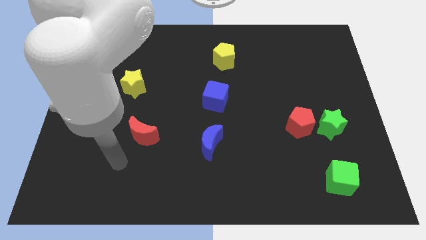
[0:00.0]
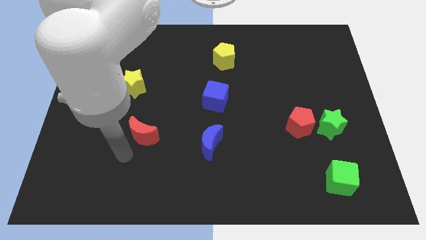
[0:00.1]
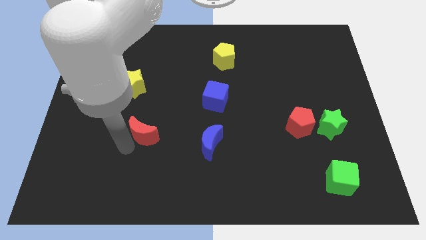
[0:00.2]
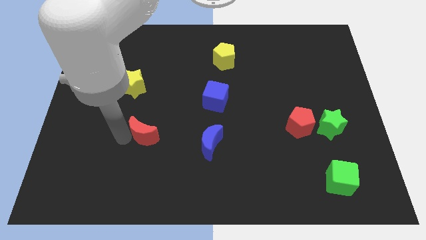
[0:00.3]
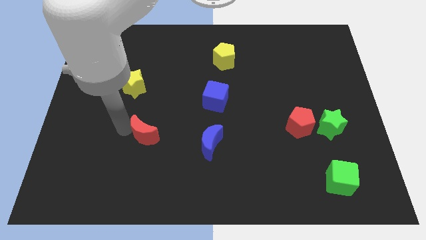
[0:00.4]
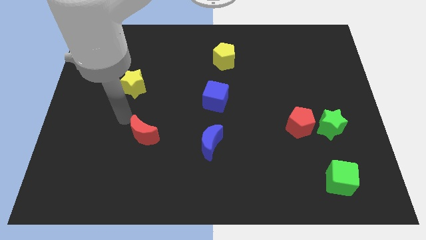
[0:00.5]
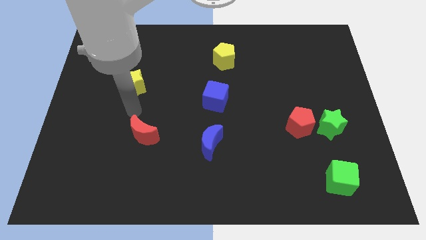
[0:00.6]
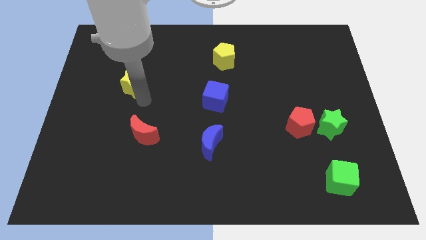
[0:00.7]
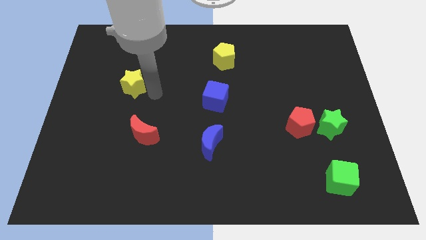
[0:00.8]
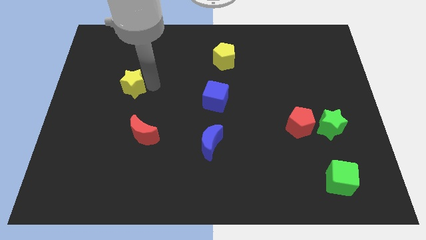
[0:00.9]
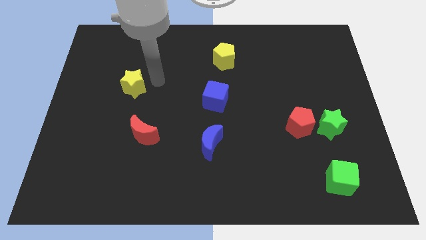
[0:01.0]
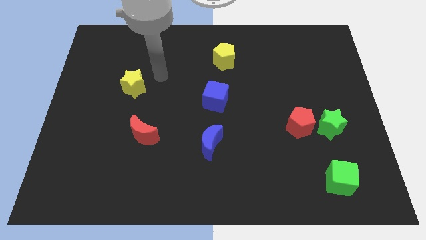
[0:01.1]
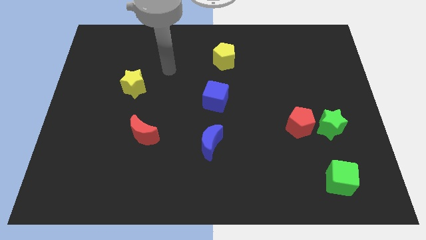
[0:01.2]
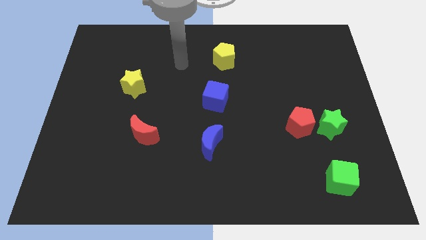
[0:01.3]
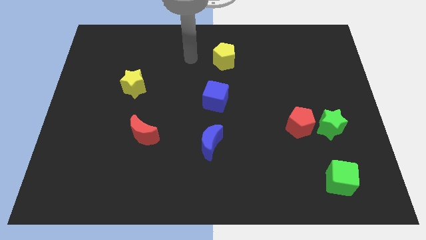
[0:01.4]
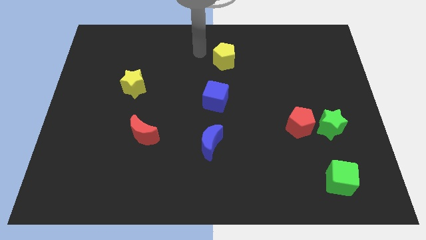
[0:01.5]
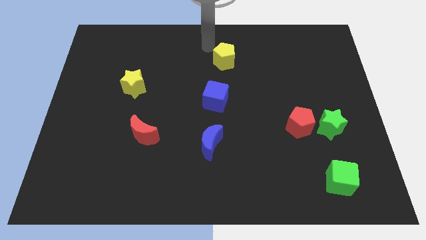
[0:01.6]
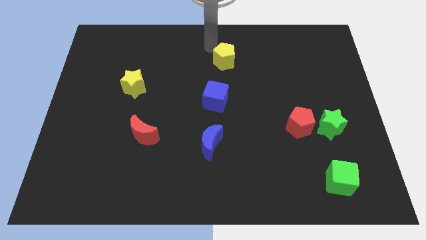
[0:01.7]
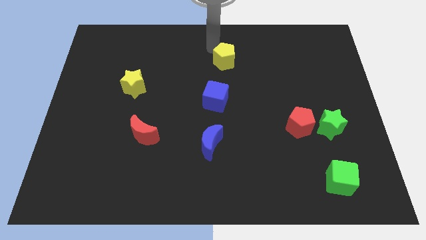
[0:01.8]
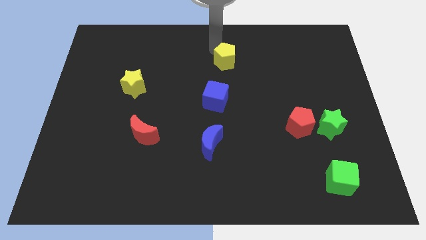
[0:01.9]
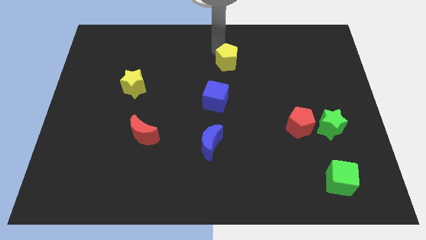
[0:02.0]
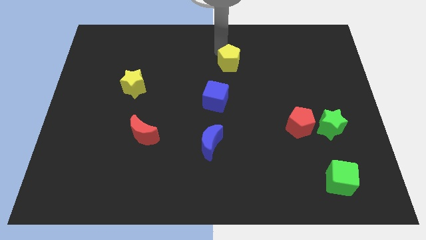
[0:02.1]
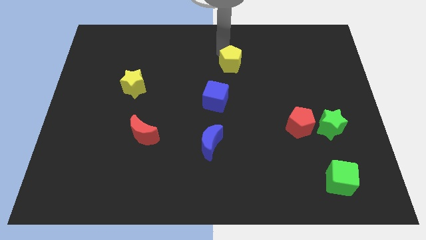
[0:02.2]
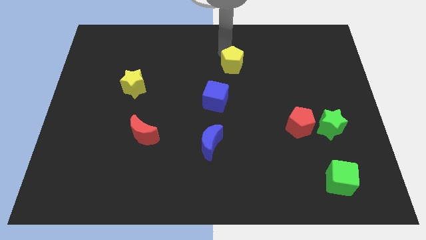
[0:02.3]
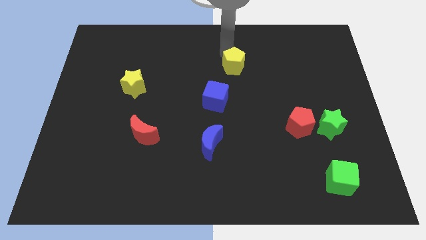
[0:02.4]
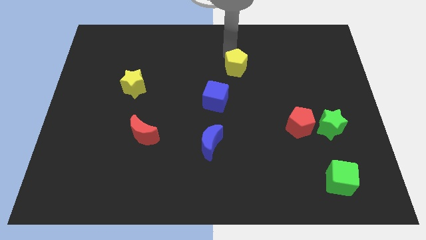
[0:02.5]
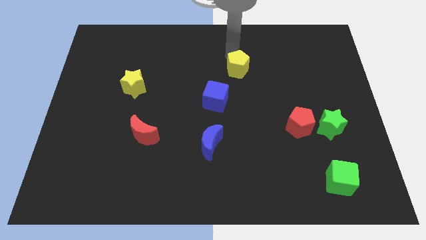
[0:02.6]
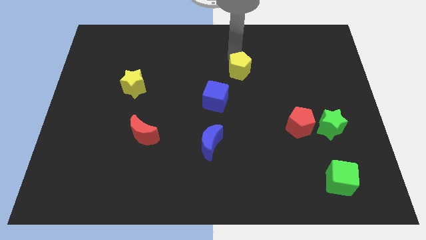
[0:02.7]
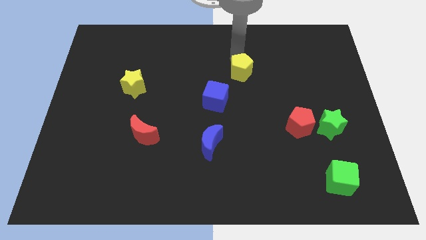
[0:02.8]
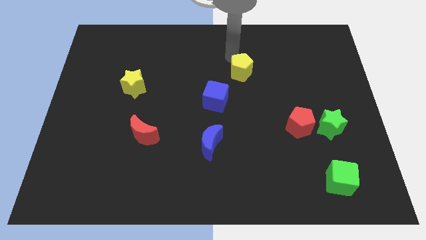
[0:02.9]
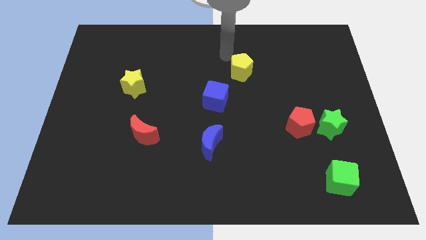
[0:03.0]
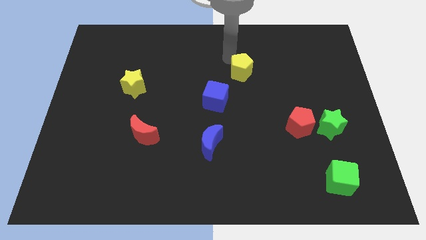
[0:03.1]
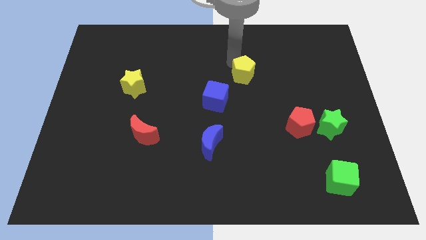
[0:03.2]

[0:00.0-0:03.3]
push the yellow pentagon slightly downwards and right diagonally

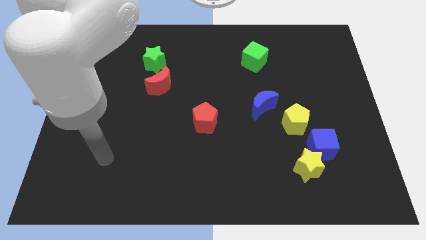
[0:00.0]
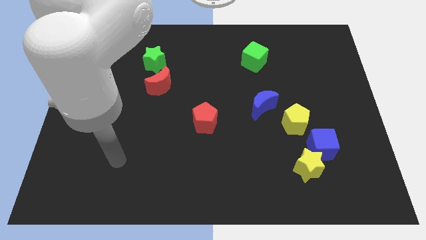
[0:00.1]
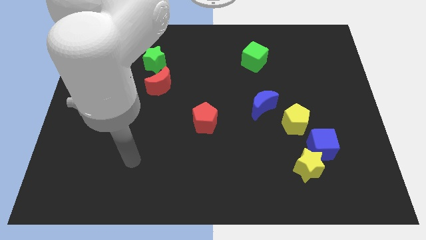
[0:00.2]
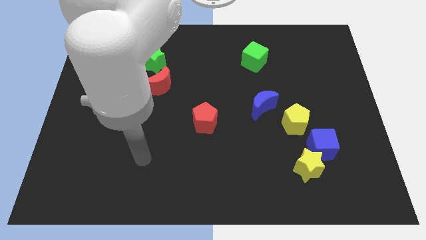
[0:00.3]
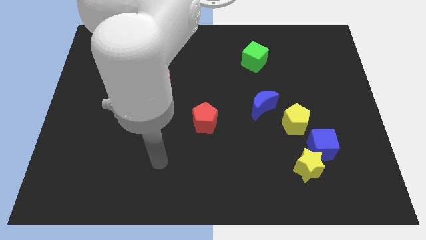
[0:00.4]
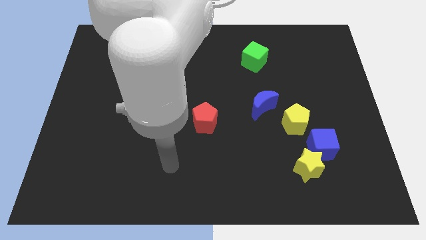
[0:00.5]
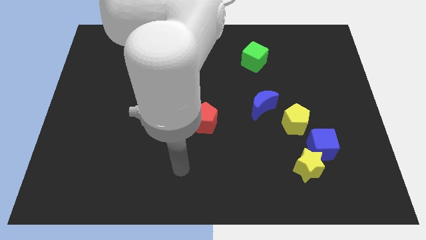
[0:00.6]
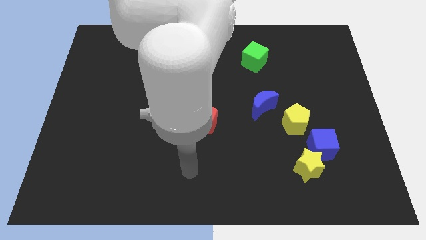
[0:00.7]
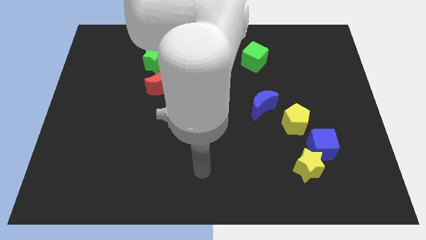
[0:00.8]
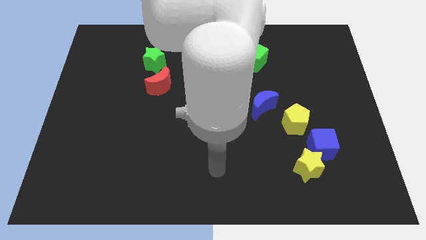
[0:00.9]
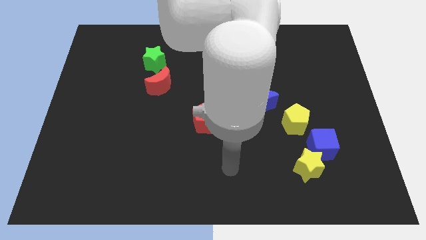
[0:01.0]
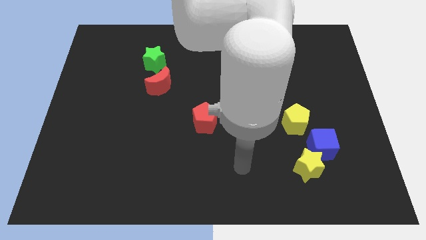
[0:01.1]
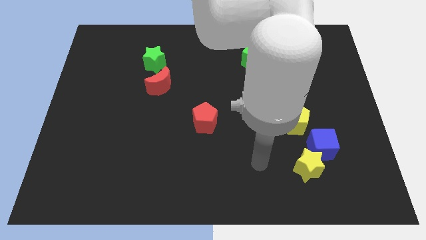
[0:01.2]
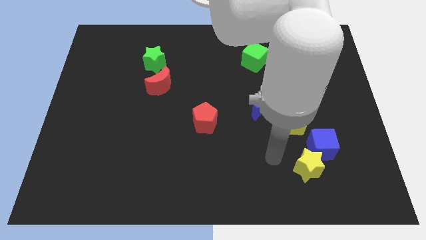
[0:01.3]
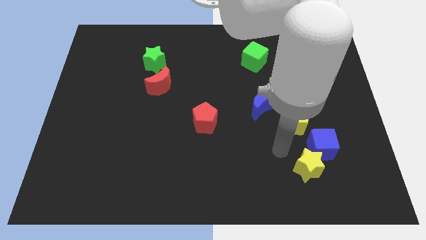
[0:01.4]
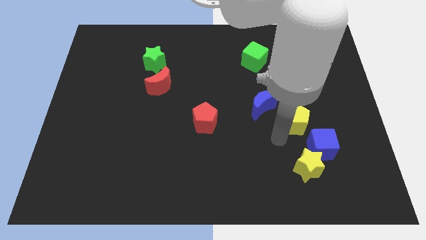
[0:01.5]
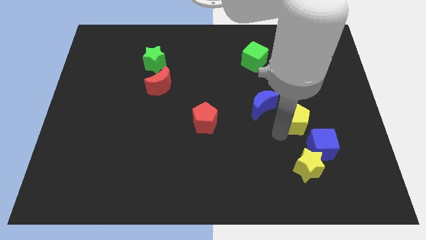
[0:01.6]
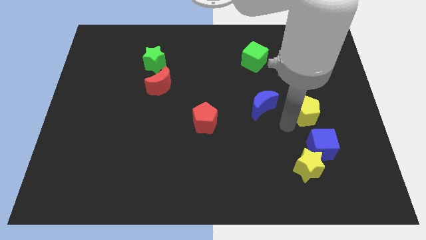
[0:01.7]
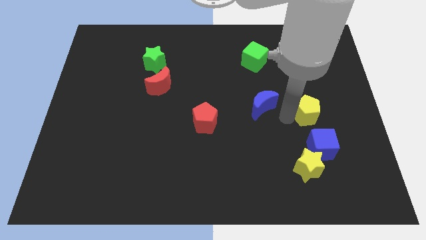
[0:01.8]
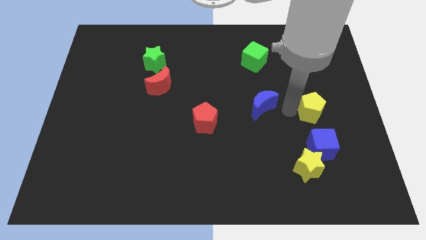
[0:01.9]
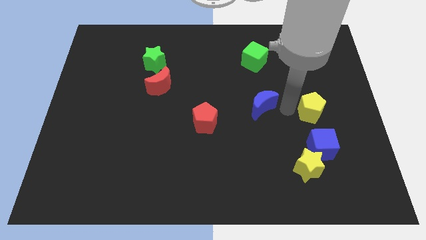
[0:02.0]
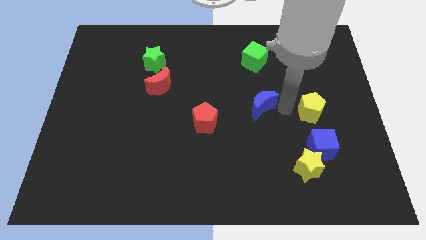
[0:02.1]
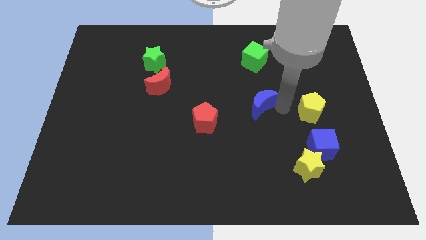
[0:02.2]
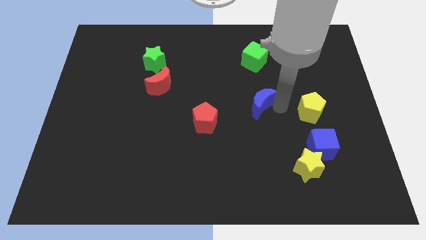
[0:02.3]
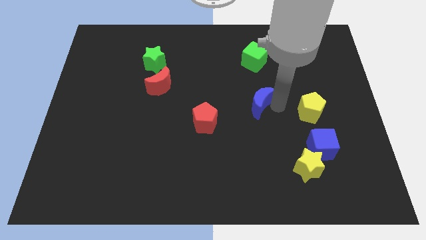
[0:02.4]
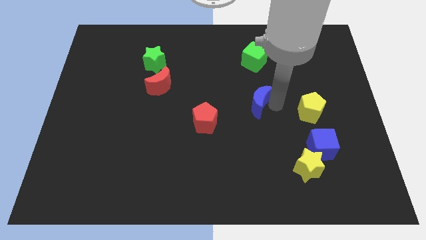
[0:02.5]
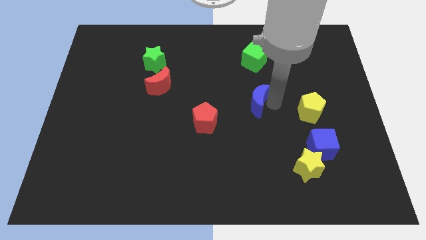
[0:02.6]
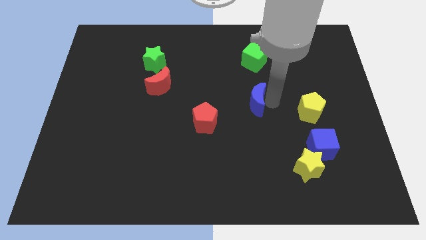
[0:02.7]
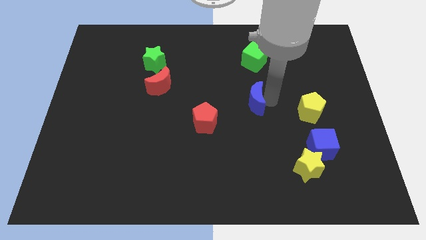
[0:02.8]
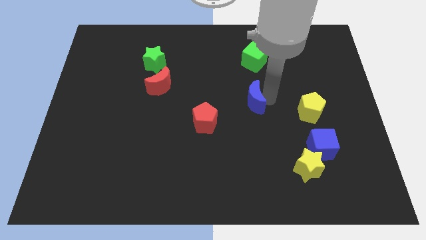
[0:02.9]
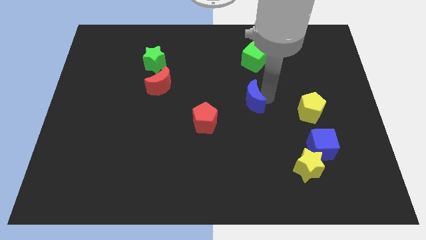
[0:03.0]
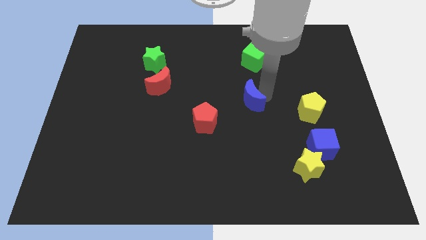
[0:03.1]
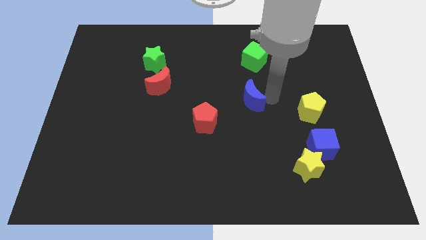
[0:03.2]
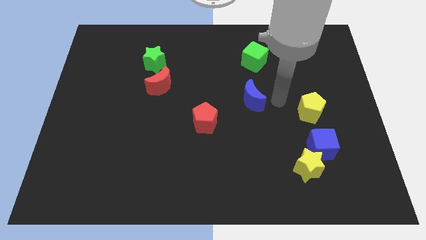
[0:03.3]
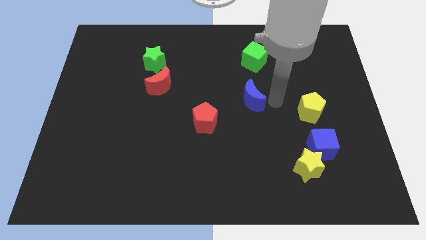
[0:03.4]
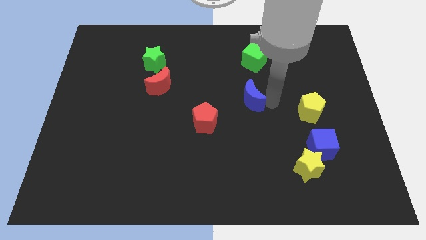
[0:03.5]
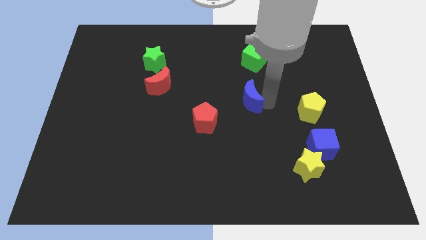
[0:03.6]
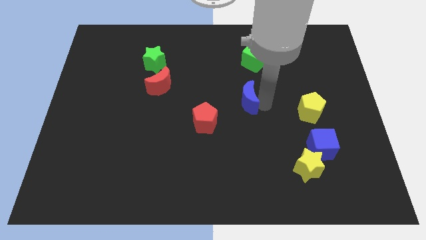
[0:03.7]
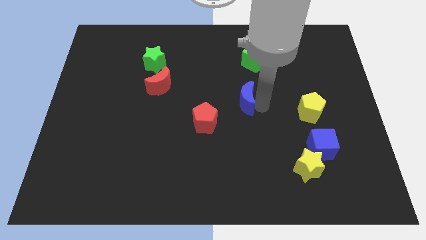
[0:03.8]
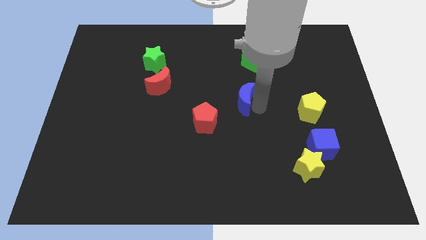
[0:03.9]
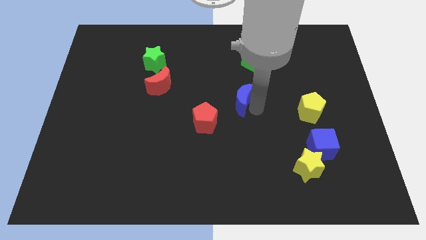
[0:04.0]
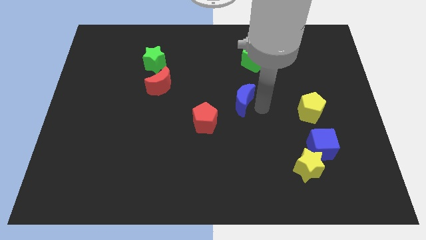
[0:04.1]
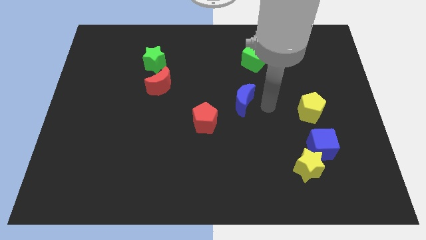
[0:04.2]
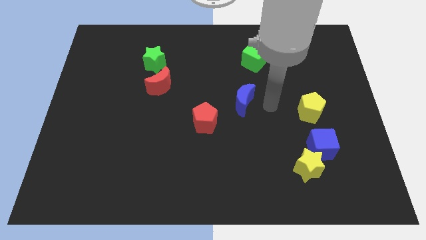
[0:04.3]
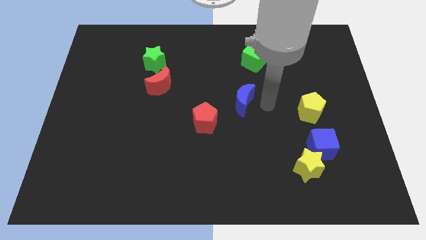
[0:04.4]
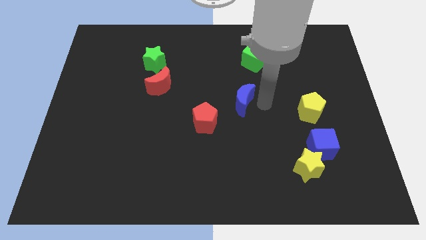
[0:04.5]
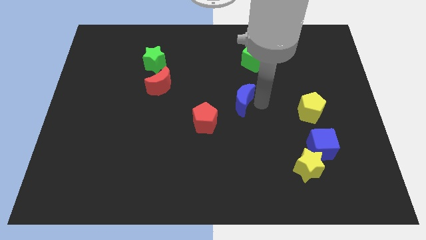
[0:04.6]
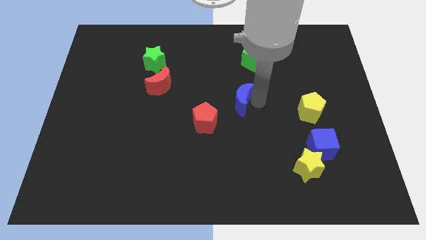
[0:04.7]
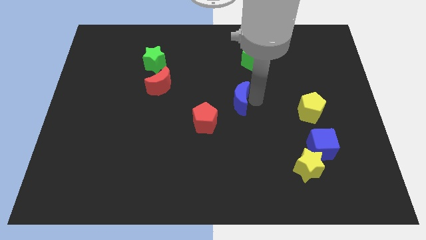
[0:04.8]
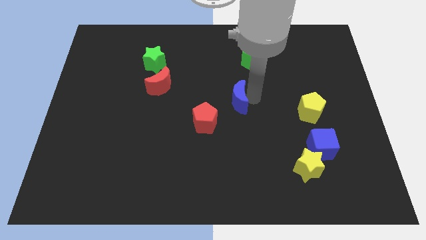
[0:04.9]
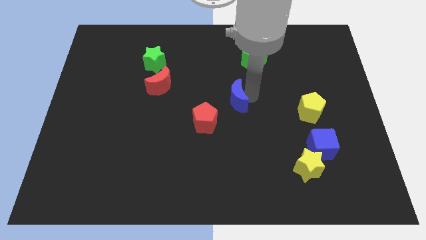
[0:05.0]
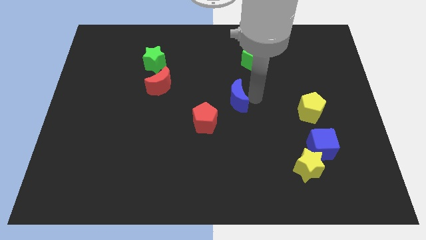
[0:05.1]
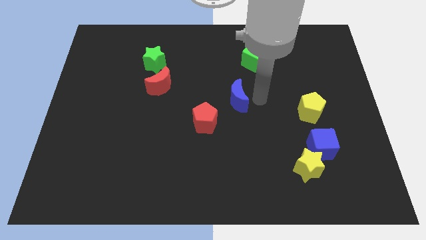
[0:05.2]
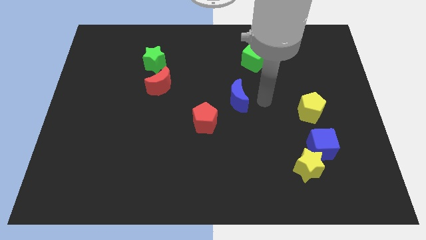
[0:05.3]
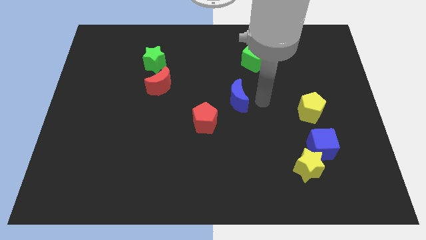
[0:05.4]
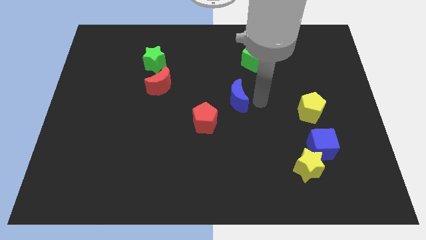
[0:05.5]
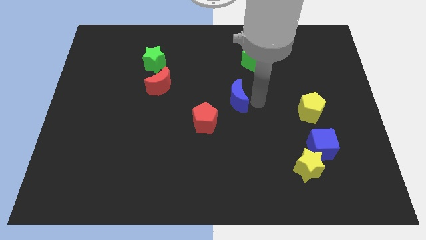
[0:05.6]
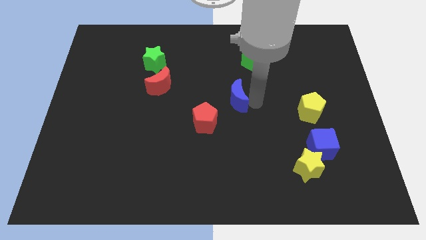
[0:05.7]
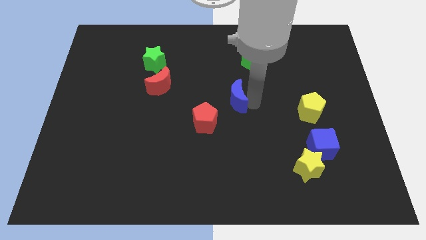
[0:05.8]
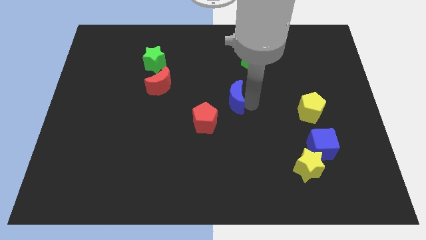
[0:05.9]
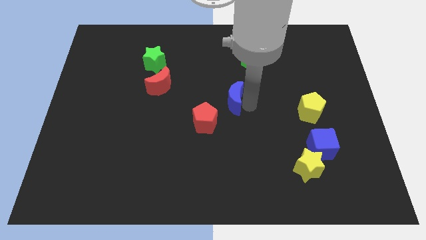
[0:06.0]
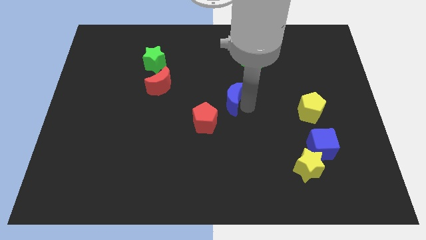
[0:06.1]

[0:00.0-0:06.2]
move the blue moon to the left a little bit
